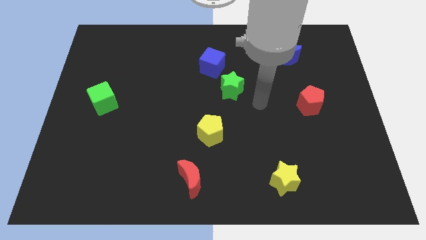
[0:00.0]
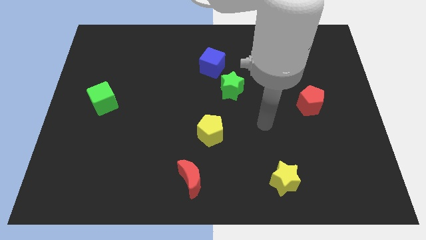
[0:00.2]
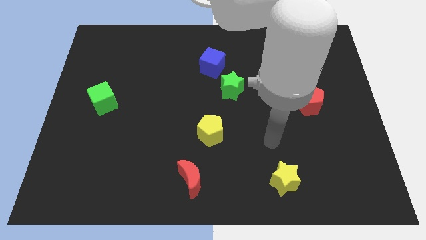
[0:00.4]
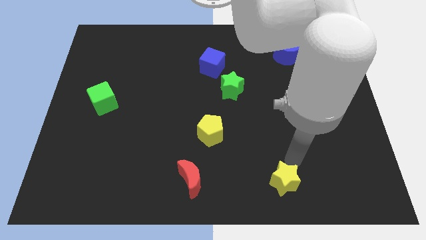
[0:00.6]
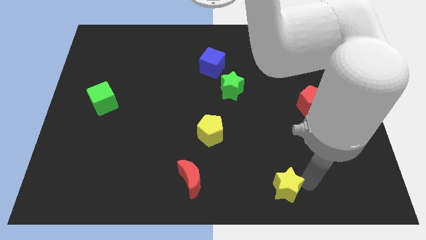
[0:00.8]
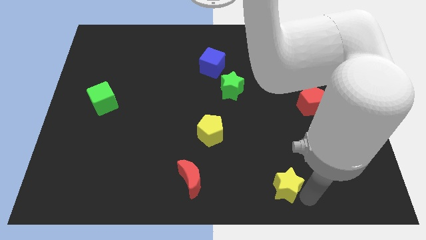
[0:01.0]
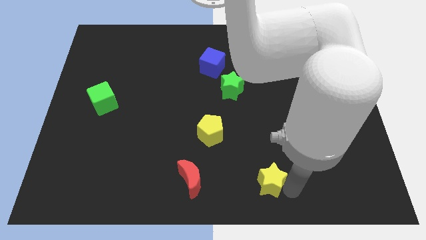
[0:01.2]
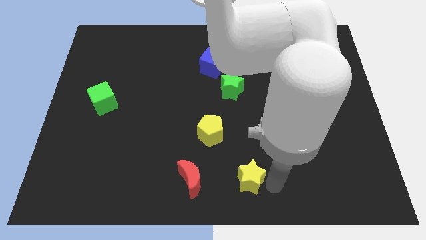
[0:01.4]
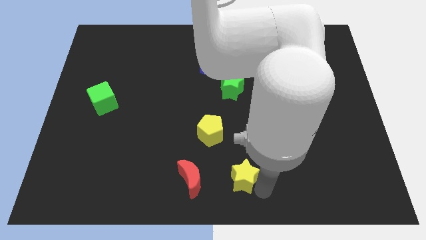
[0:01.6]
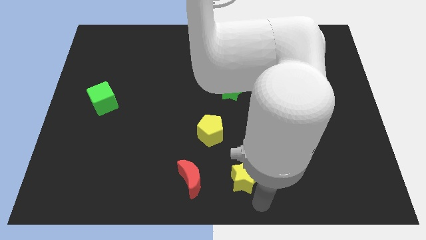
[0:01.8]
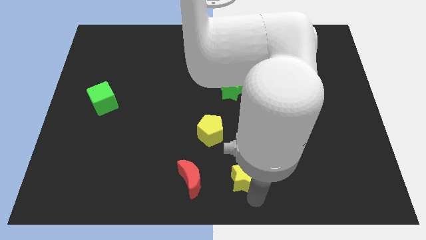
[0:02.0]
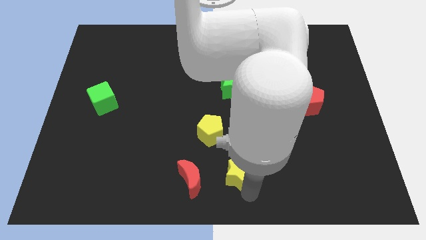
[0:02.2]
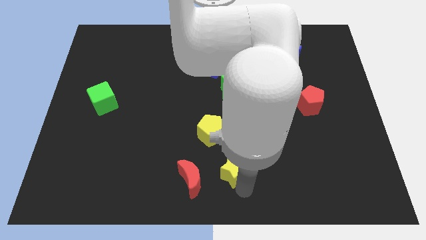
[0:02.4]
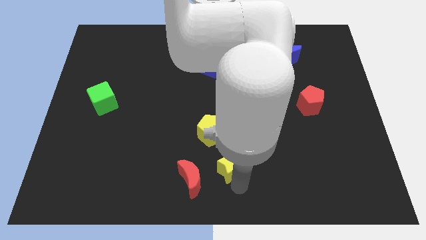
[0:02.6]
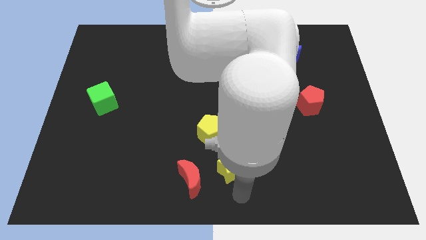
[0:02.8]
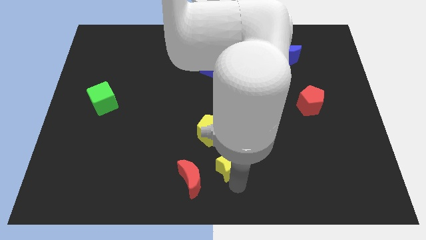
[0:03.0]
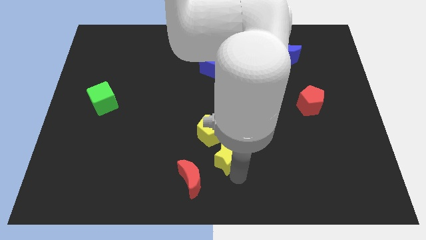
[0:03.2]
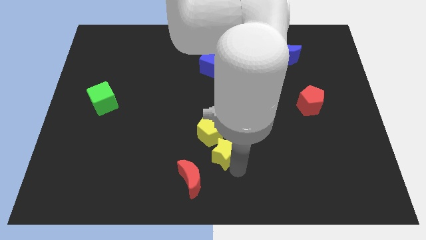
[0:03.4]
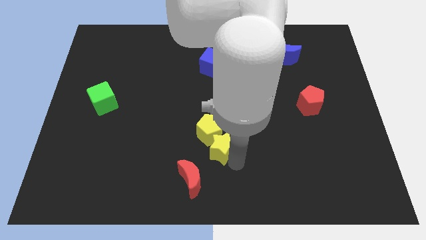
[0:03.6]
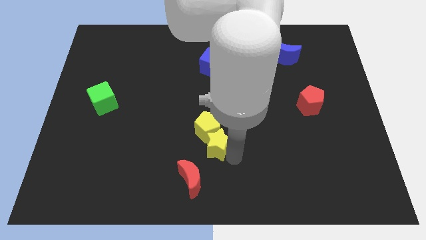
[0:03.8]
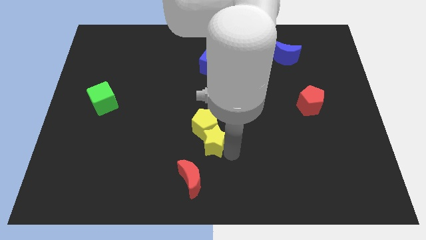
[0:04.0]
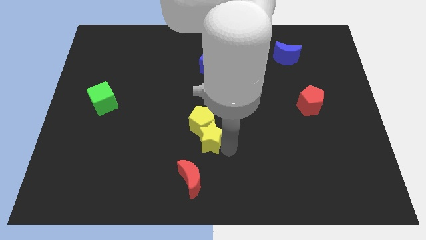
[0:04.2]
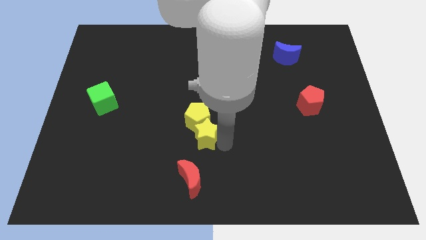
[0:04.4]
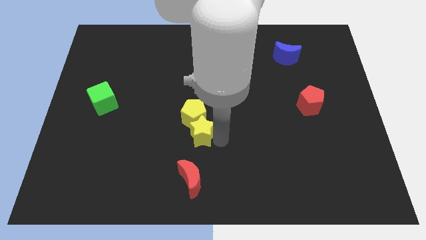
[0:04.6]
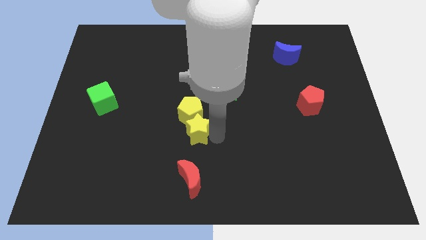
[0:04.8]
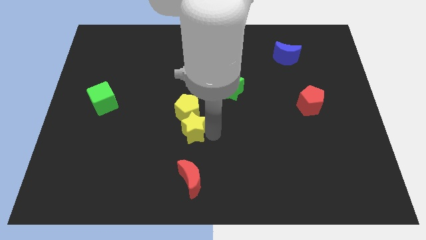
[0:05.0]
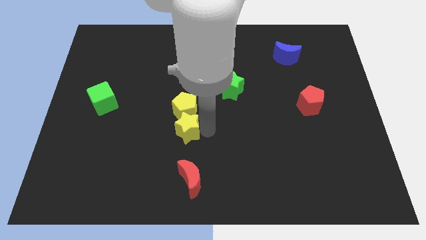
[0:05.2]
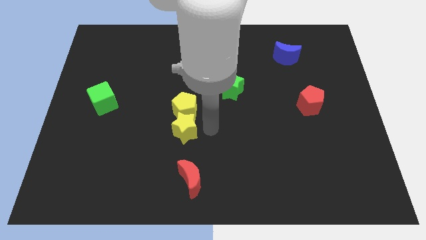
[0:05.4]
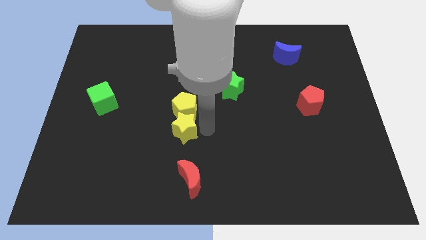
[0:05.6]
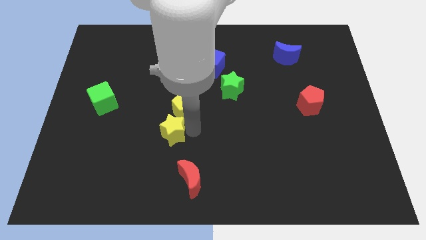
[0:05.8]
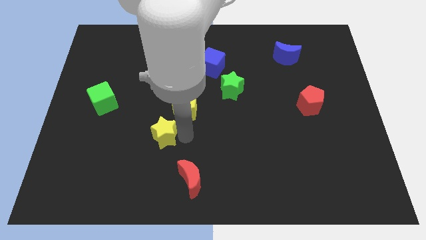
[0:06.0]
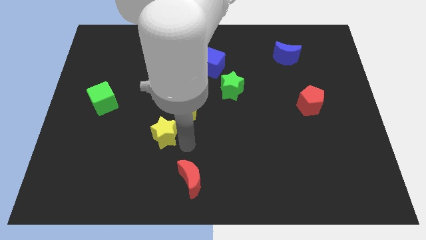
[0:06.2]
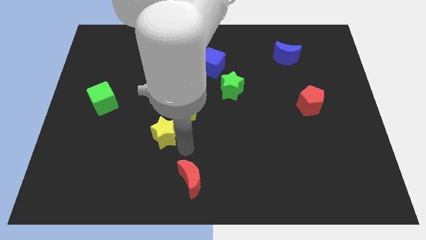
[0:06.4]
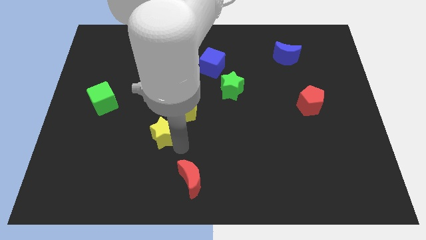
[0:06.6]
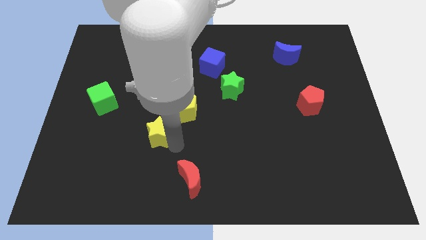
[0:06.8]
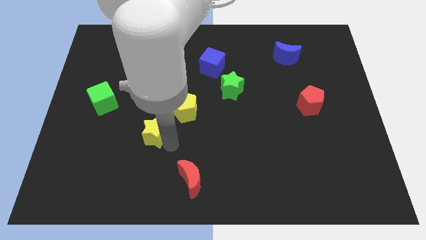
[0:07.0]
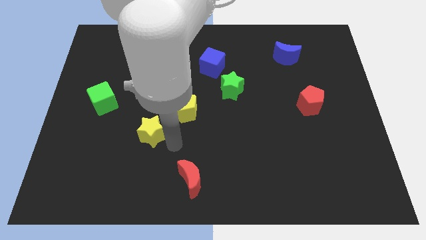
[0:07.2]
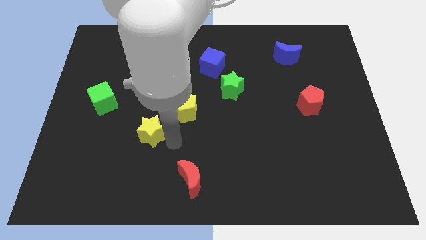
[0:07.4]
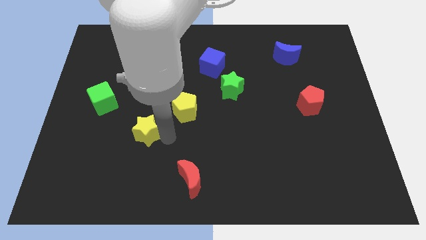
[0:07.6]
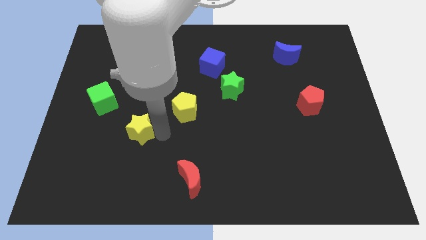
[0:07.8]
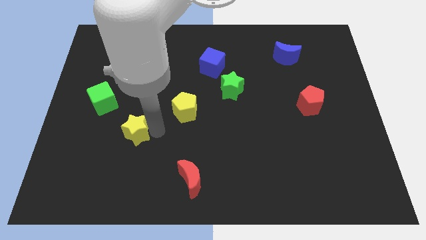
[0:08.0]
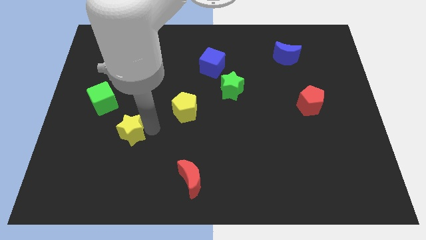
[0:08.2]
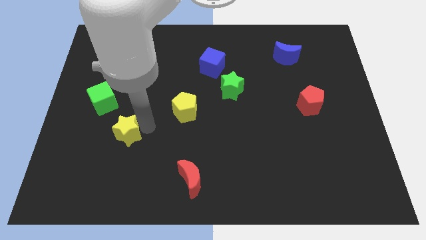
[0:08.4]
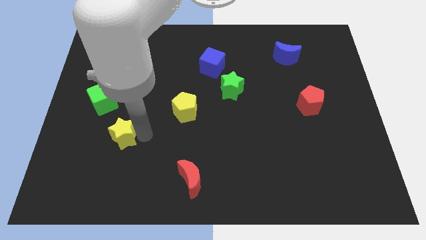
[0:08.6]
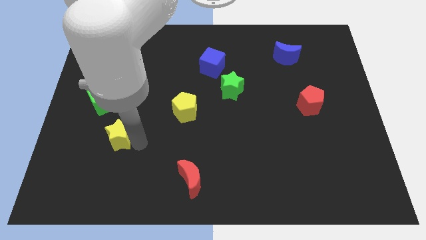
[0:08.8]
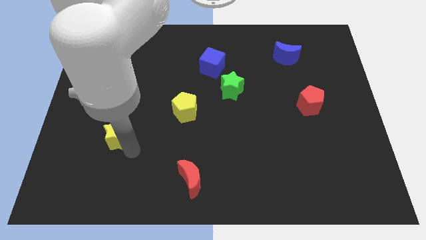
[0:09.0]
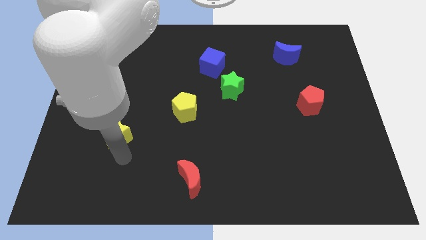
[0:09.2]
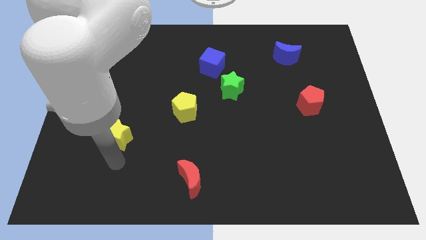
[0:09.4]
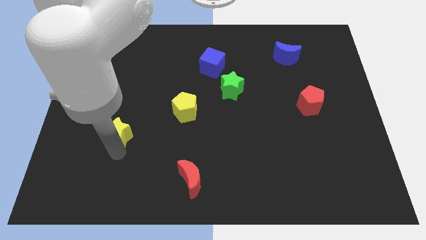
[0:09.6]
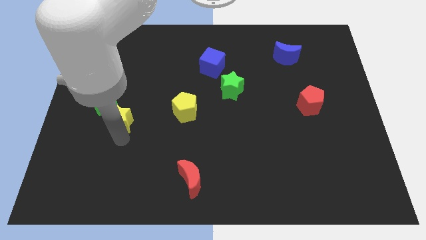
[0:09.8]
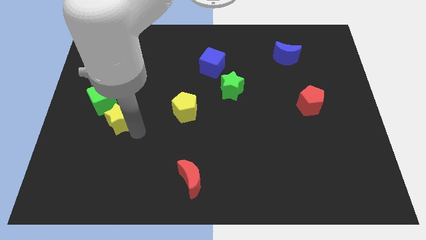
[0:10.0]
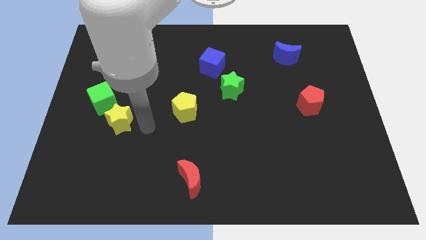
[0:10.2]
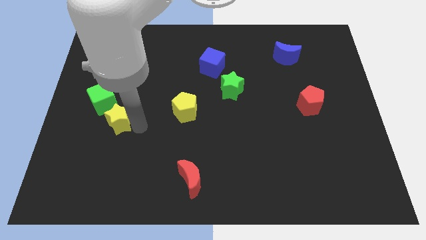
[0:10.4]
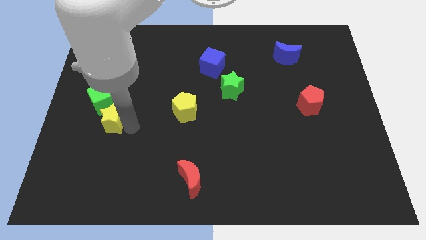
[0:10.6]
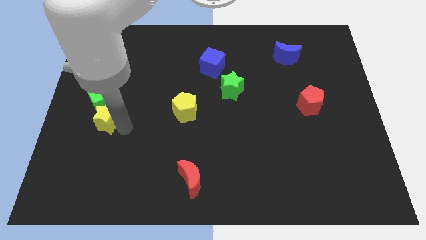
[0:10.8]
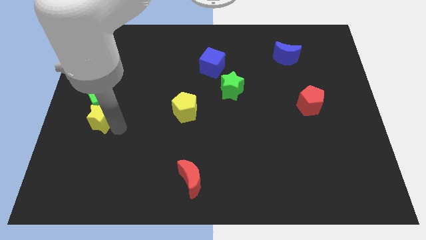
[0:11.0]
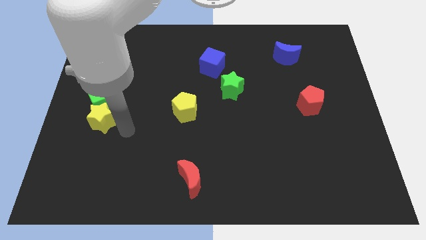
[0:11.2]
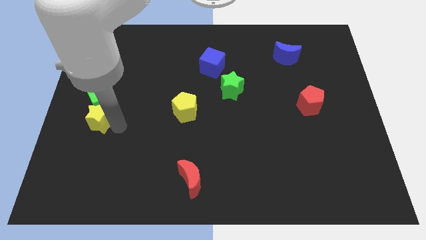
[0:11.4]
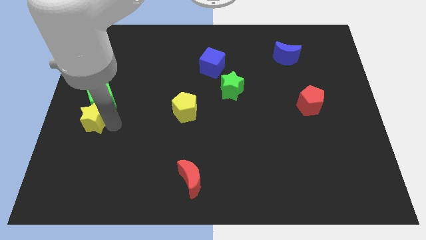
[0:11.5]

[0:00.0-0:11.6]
slide the yellow star to the left side

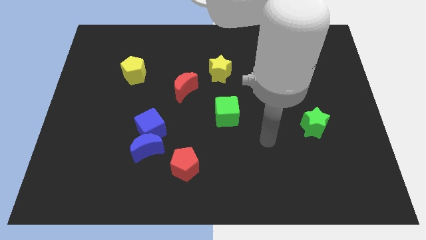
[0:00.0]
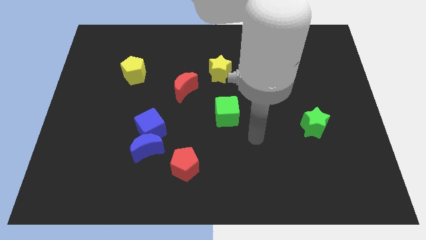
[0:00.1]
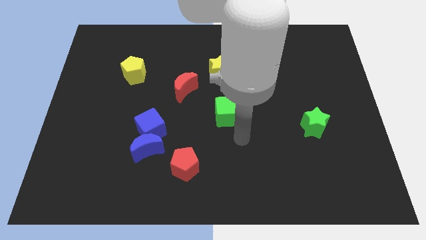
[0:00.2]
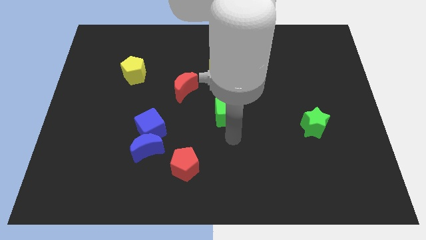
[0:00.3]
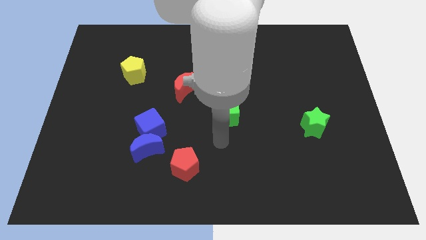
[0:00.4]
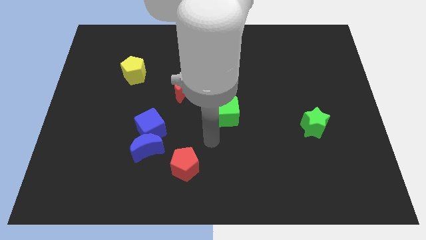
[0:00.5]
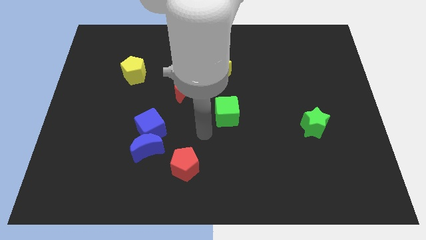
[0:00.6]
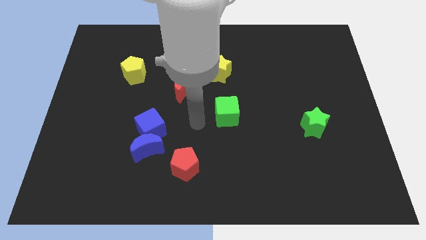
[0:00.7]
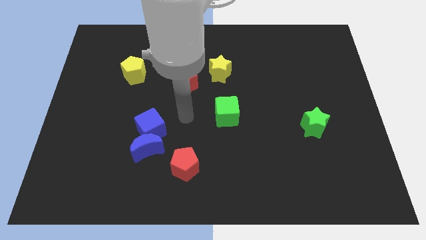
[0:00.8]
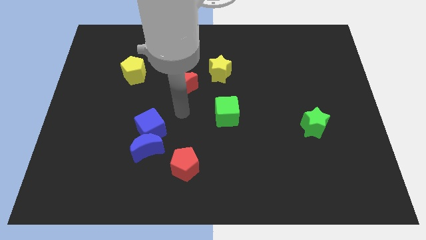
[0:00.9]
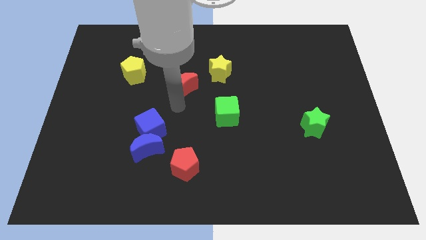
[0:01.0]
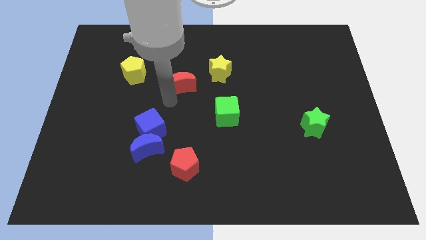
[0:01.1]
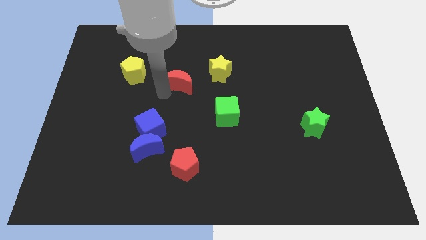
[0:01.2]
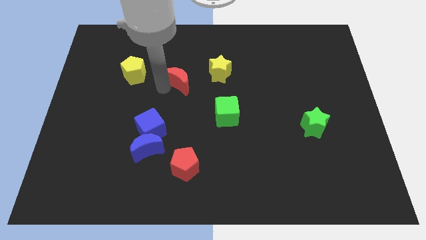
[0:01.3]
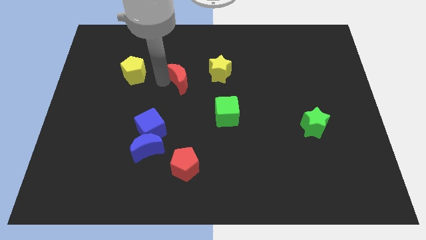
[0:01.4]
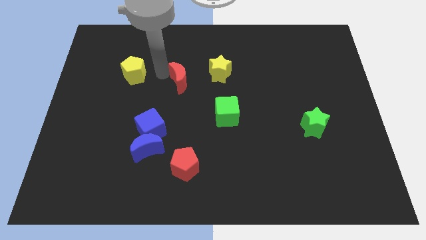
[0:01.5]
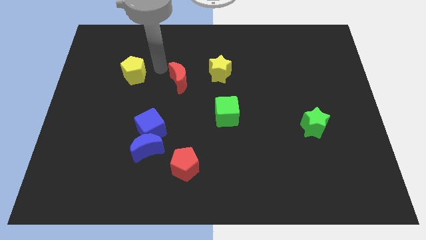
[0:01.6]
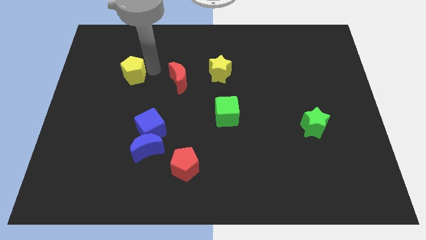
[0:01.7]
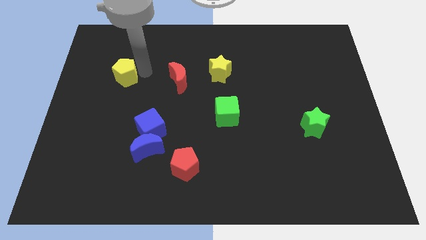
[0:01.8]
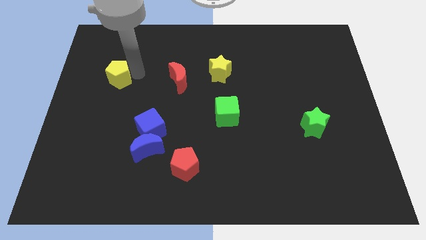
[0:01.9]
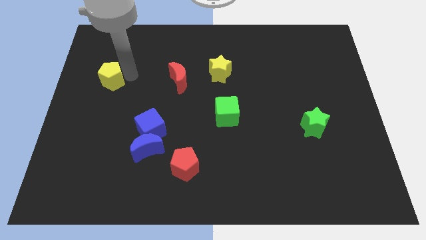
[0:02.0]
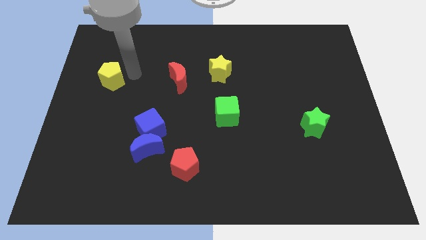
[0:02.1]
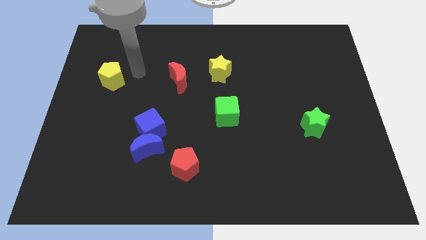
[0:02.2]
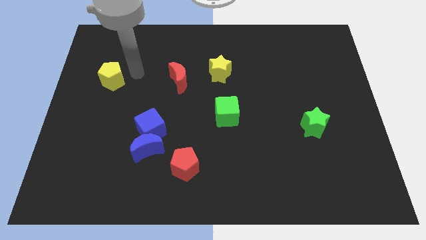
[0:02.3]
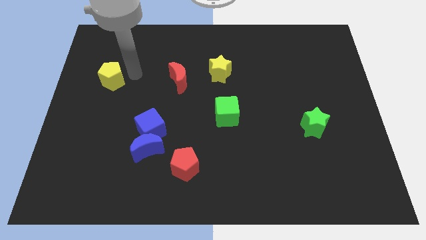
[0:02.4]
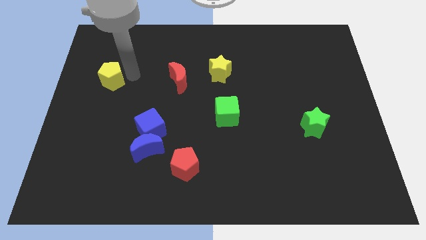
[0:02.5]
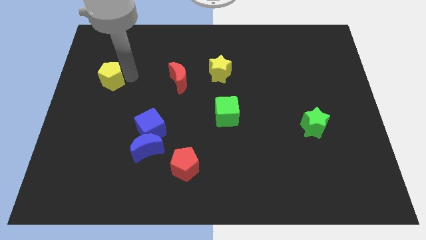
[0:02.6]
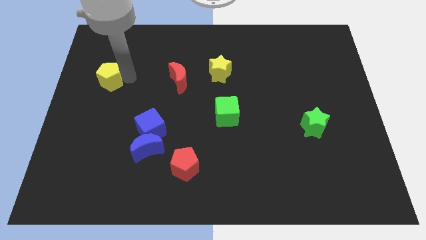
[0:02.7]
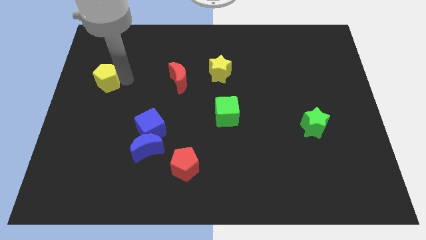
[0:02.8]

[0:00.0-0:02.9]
put the yellow pentagon to the left side
